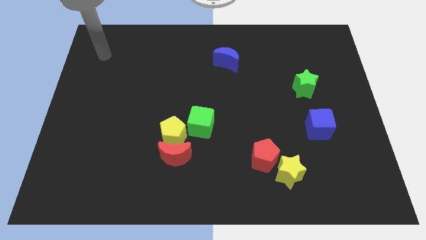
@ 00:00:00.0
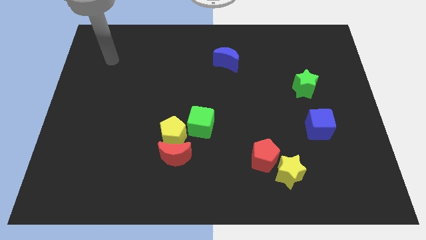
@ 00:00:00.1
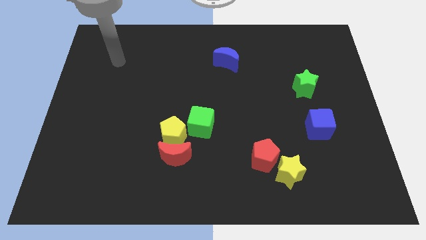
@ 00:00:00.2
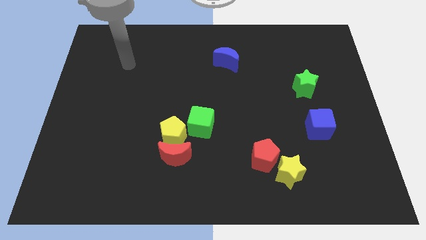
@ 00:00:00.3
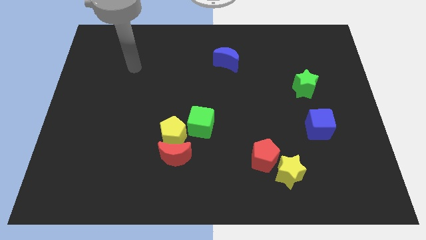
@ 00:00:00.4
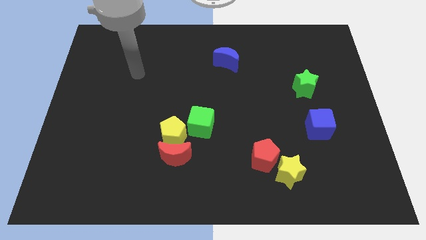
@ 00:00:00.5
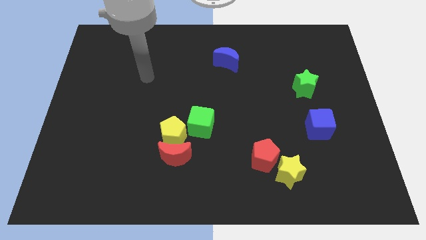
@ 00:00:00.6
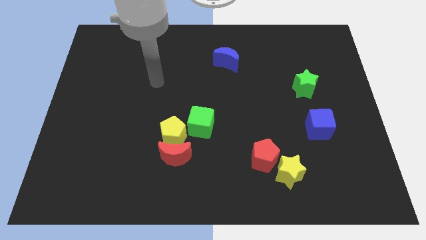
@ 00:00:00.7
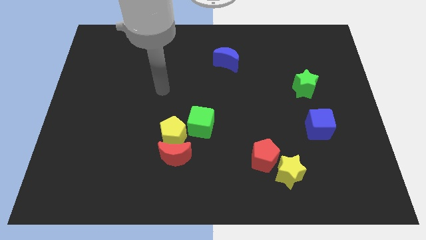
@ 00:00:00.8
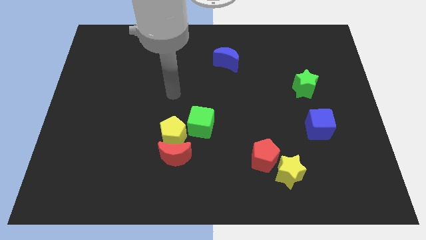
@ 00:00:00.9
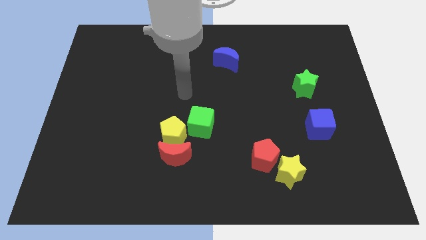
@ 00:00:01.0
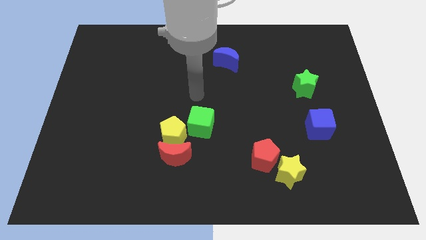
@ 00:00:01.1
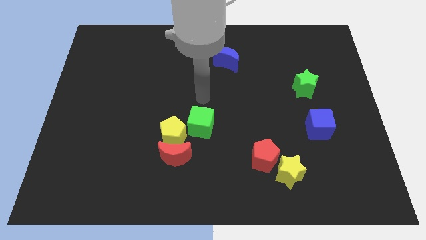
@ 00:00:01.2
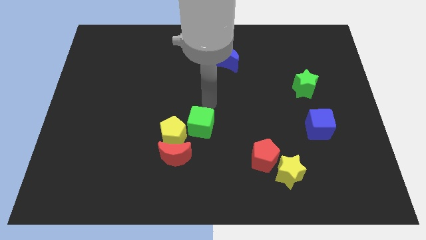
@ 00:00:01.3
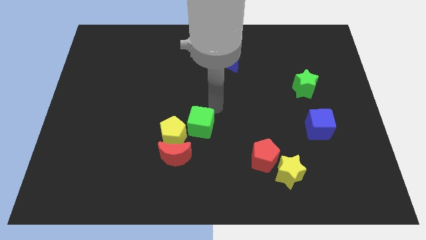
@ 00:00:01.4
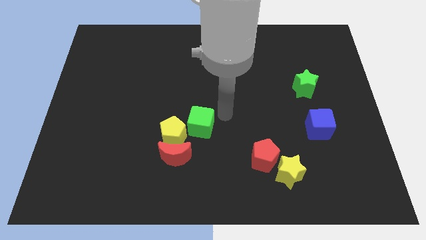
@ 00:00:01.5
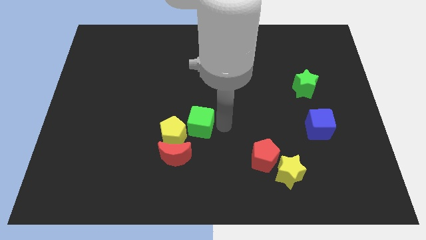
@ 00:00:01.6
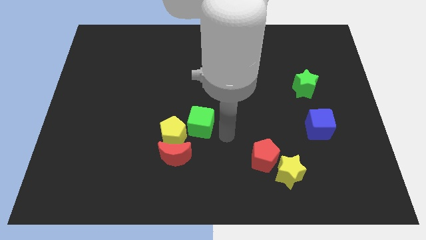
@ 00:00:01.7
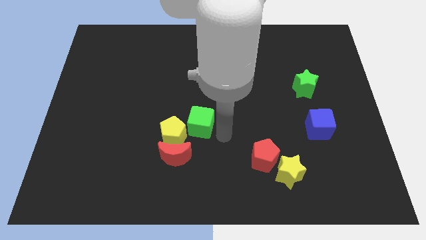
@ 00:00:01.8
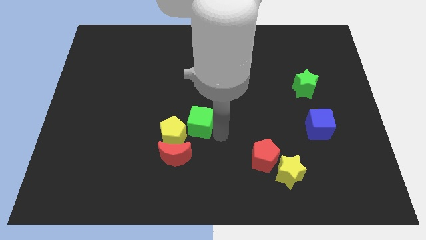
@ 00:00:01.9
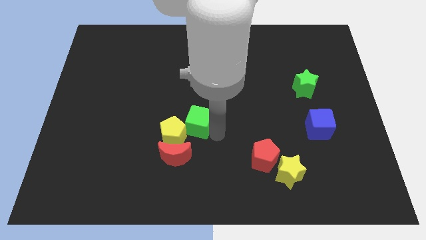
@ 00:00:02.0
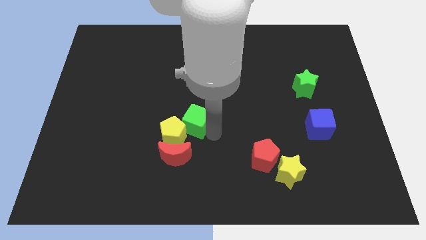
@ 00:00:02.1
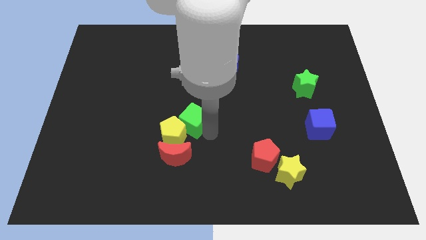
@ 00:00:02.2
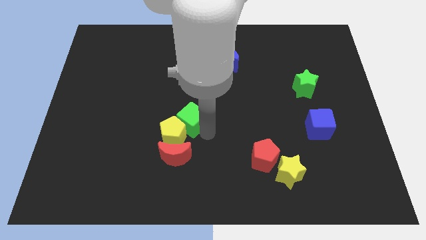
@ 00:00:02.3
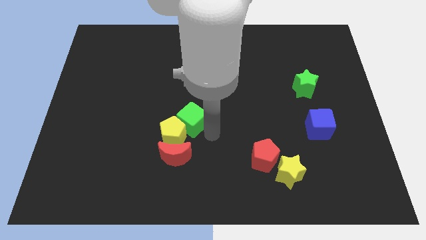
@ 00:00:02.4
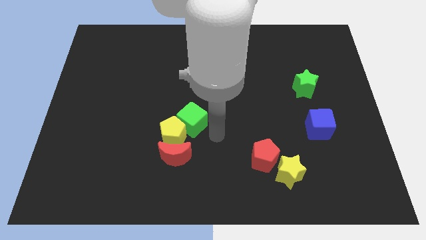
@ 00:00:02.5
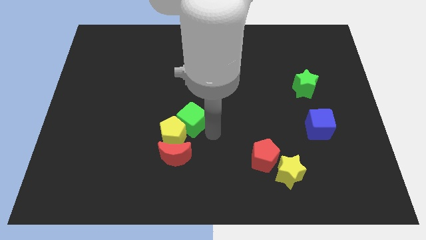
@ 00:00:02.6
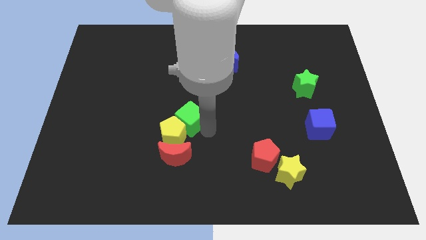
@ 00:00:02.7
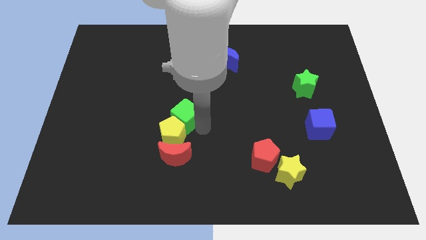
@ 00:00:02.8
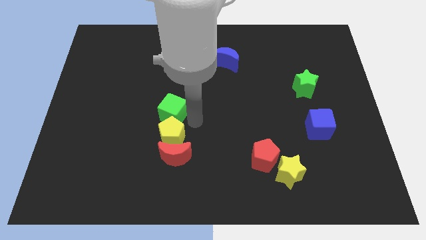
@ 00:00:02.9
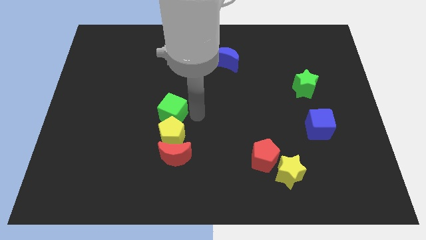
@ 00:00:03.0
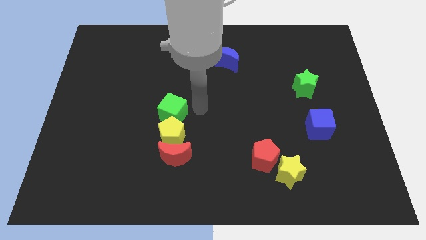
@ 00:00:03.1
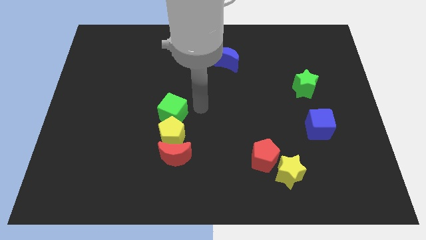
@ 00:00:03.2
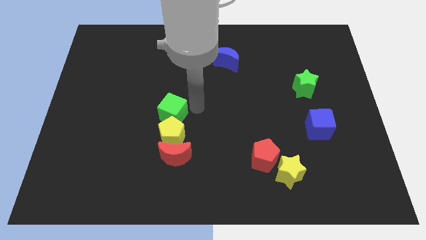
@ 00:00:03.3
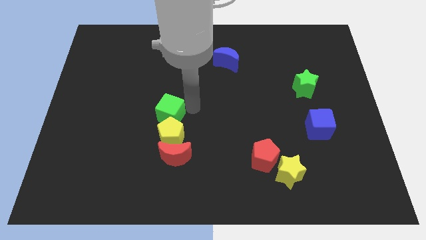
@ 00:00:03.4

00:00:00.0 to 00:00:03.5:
move the green cube to the left a little bit

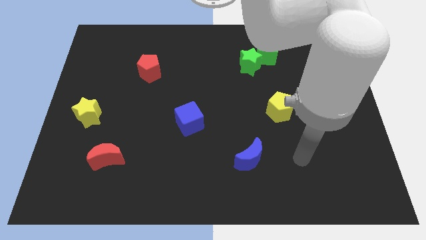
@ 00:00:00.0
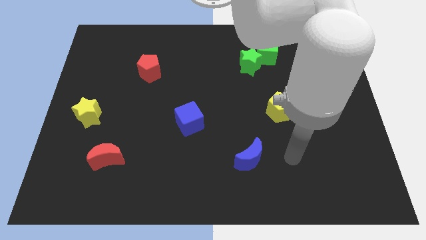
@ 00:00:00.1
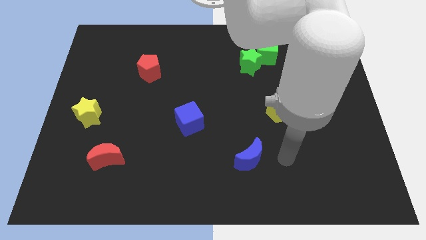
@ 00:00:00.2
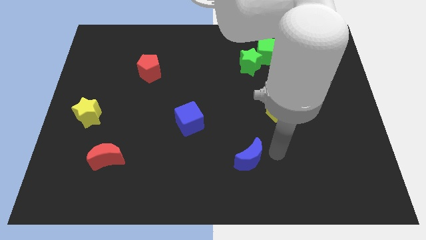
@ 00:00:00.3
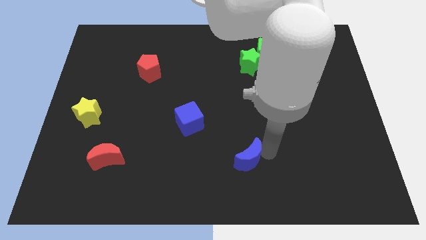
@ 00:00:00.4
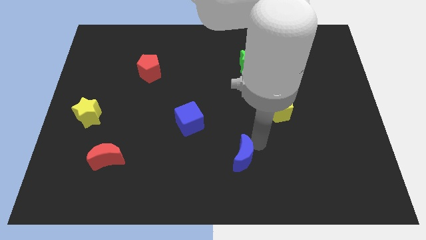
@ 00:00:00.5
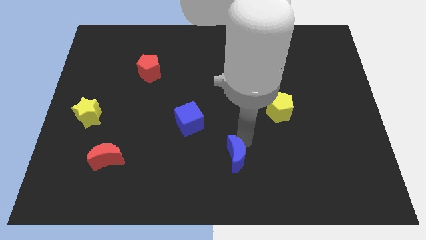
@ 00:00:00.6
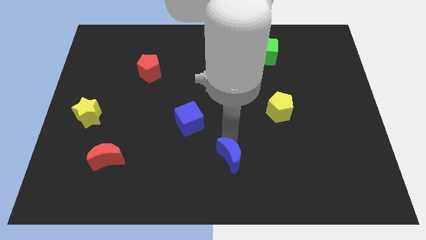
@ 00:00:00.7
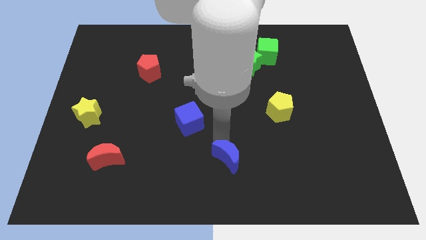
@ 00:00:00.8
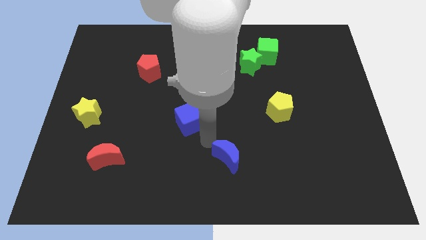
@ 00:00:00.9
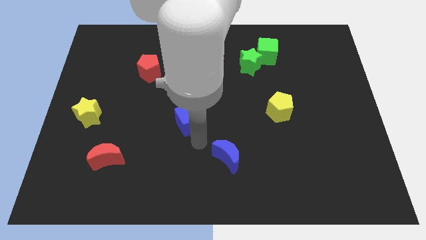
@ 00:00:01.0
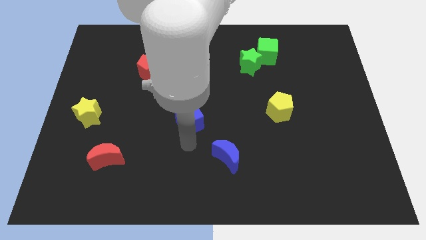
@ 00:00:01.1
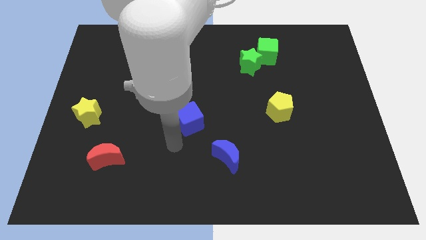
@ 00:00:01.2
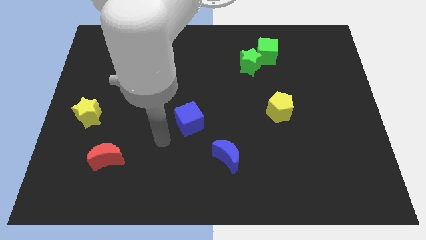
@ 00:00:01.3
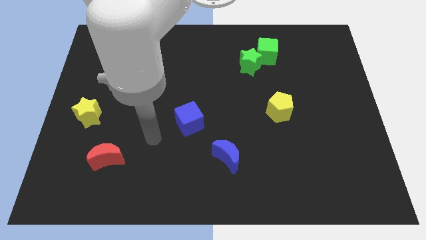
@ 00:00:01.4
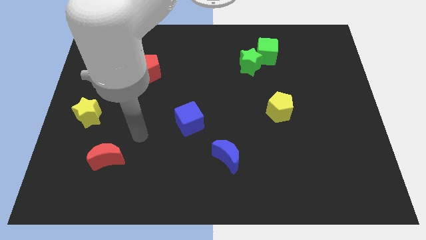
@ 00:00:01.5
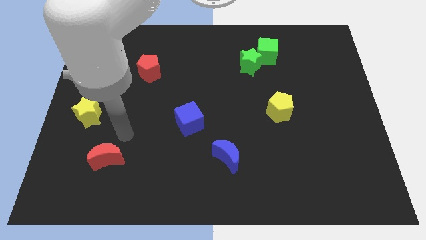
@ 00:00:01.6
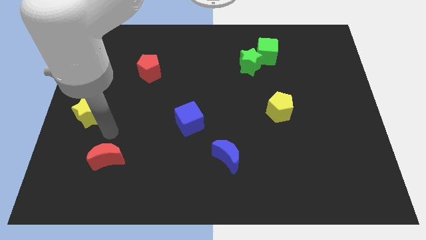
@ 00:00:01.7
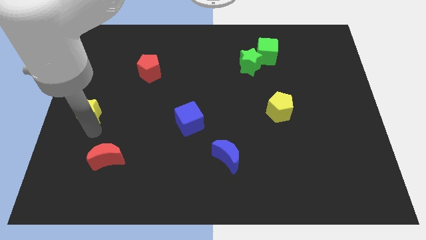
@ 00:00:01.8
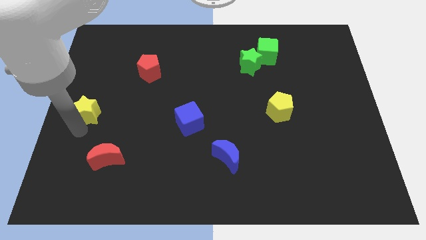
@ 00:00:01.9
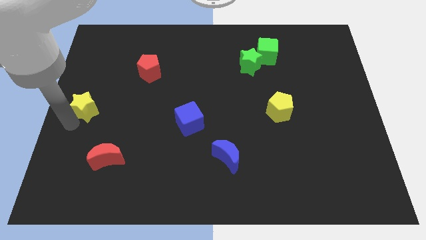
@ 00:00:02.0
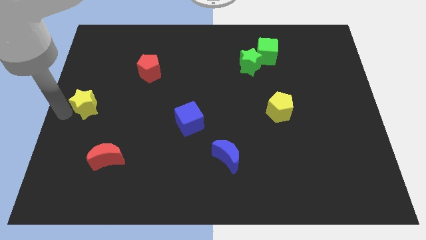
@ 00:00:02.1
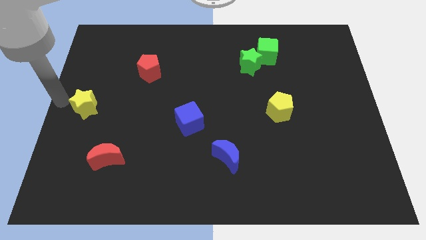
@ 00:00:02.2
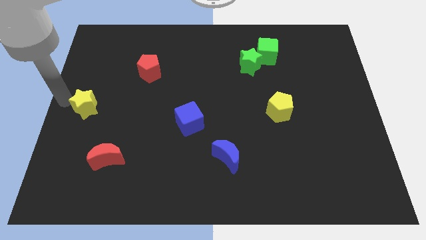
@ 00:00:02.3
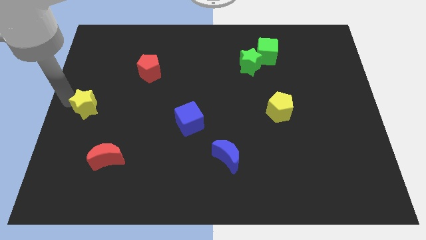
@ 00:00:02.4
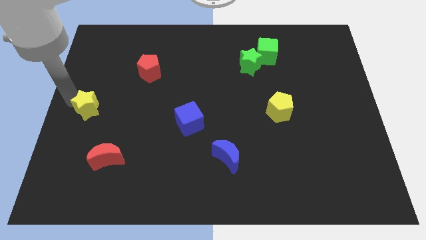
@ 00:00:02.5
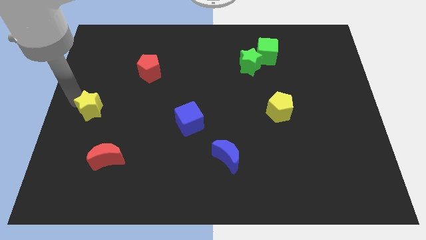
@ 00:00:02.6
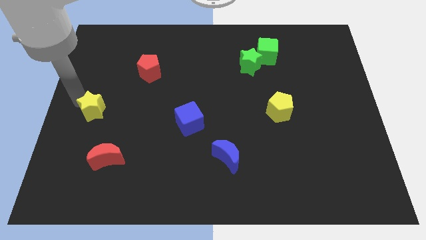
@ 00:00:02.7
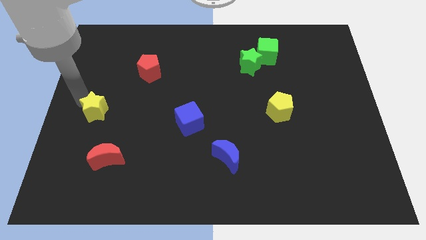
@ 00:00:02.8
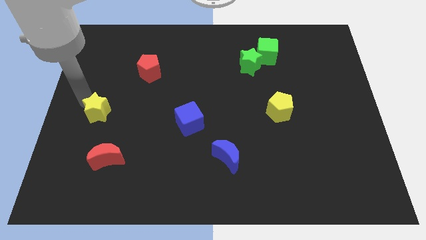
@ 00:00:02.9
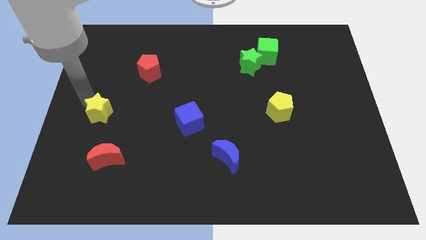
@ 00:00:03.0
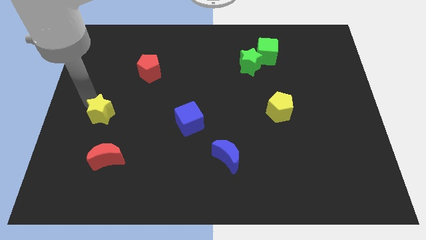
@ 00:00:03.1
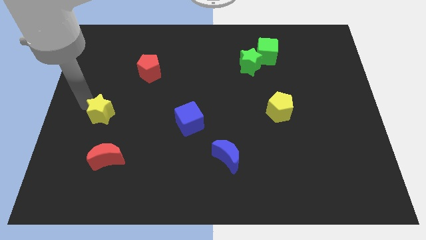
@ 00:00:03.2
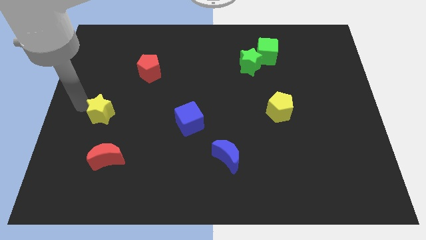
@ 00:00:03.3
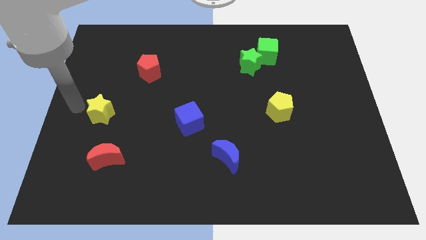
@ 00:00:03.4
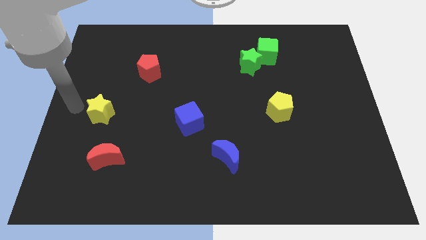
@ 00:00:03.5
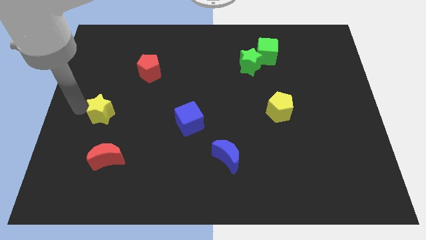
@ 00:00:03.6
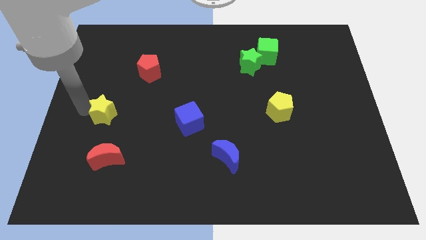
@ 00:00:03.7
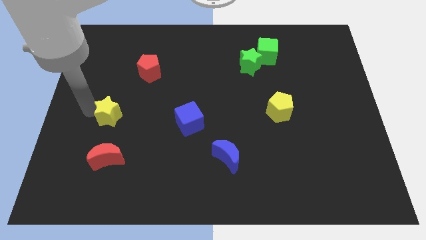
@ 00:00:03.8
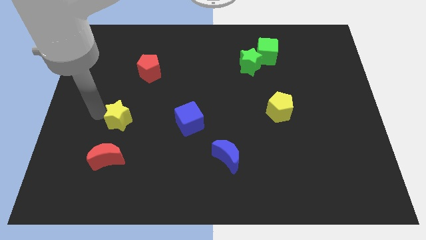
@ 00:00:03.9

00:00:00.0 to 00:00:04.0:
move the yellow star right a little

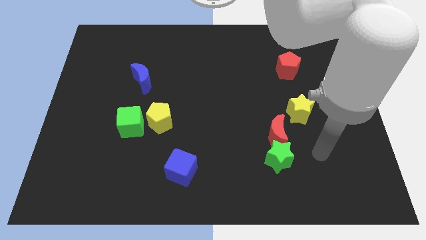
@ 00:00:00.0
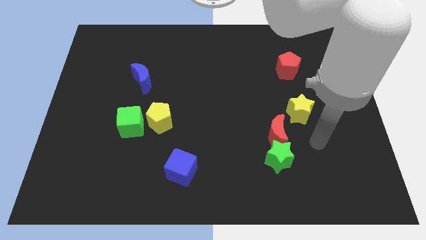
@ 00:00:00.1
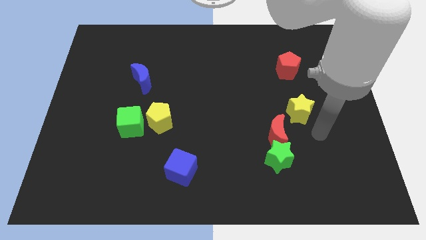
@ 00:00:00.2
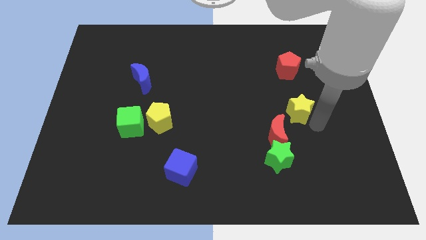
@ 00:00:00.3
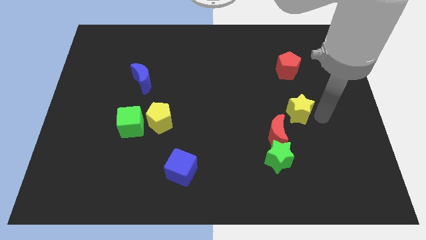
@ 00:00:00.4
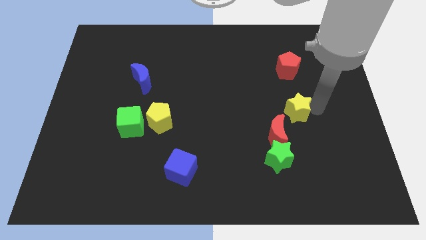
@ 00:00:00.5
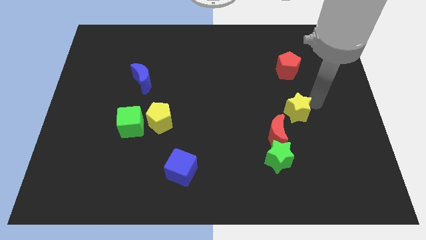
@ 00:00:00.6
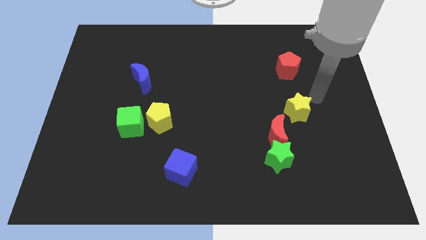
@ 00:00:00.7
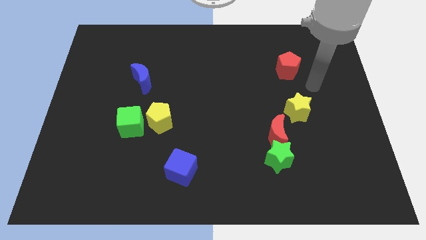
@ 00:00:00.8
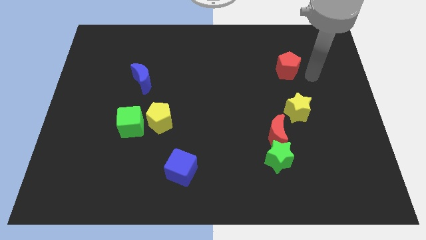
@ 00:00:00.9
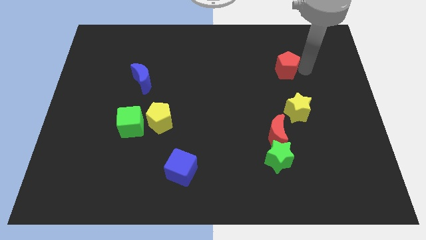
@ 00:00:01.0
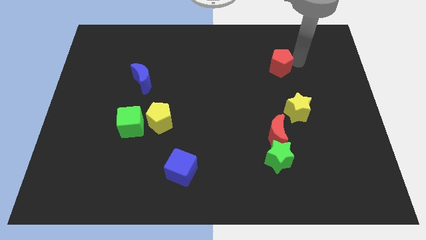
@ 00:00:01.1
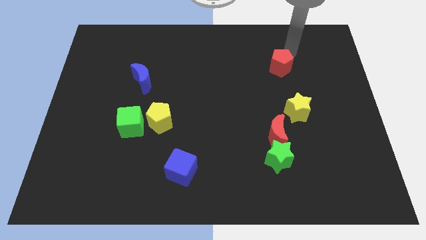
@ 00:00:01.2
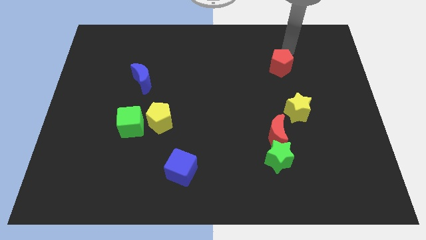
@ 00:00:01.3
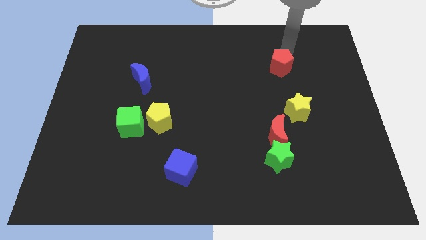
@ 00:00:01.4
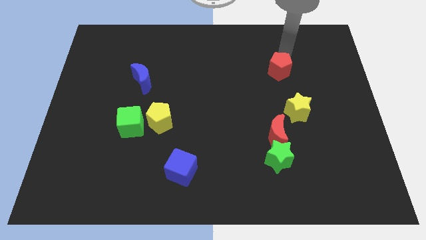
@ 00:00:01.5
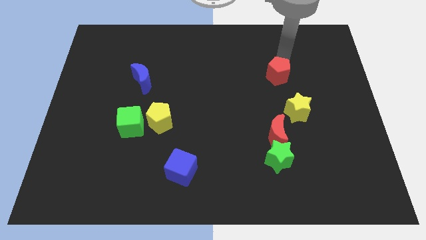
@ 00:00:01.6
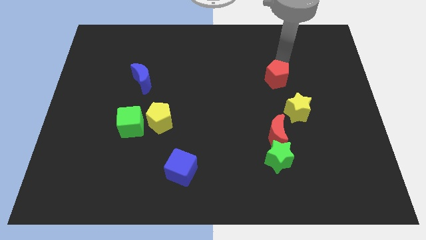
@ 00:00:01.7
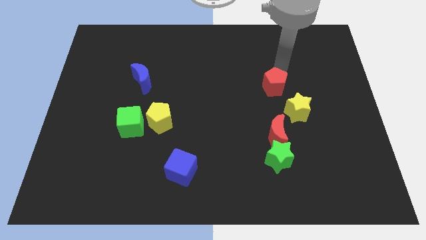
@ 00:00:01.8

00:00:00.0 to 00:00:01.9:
push the red pentagon down and left diagonally a little bit
